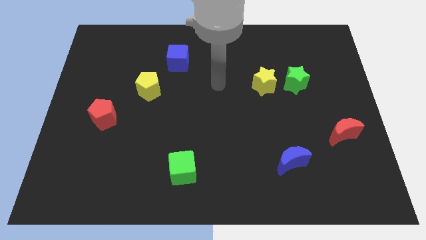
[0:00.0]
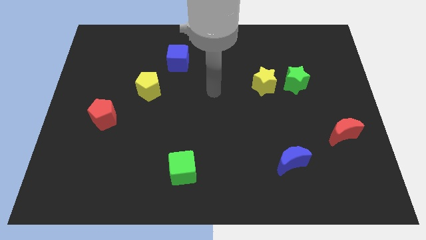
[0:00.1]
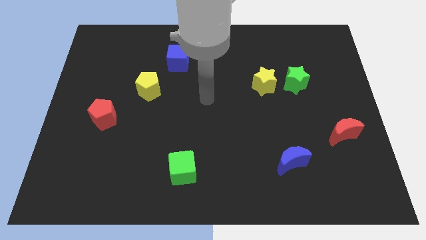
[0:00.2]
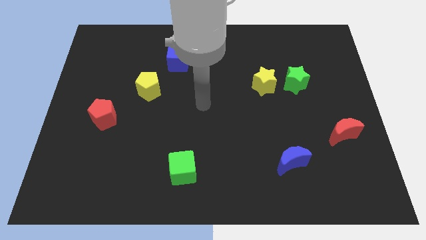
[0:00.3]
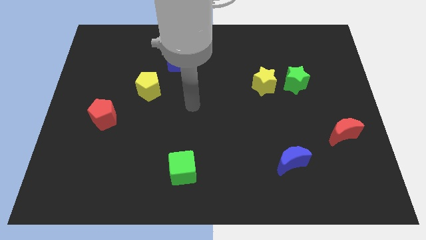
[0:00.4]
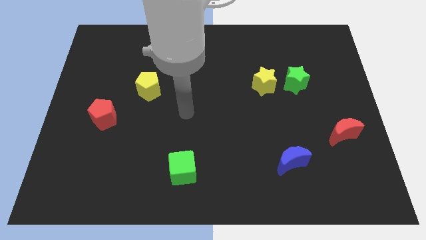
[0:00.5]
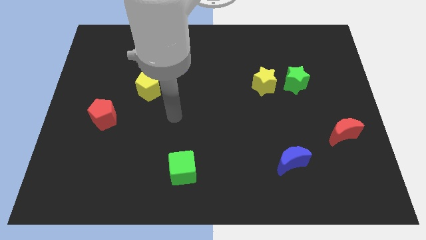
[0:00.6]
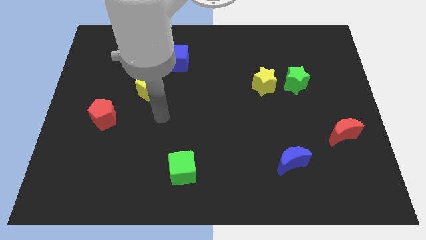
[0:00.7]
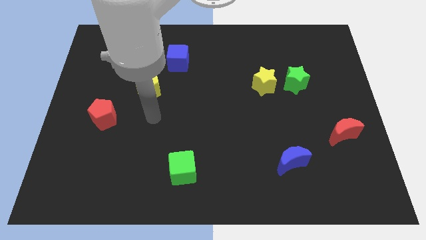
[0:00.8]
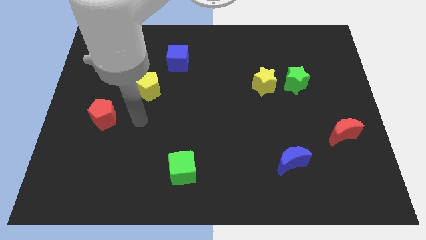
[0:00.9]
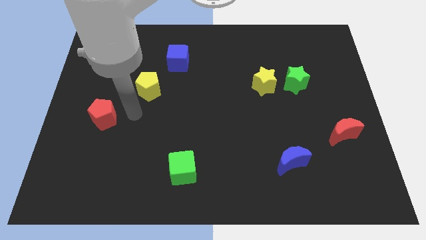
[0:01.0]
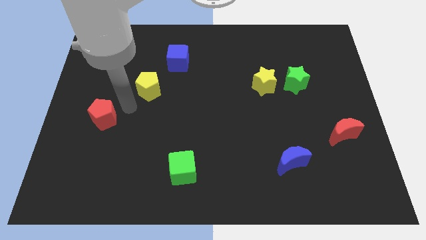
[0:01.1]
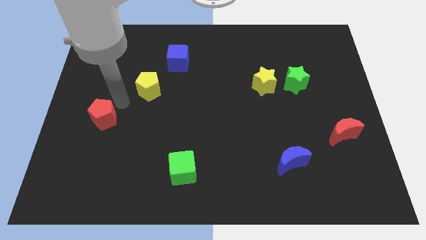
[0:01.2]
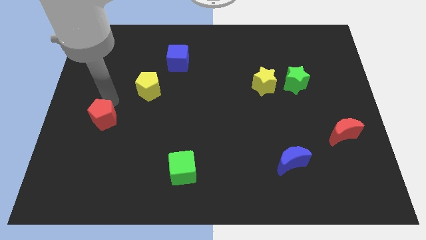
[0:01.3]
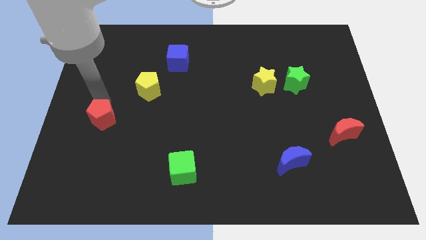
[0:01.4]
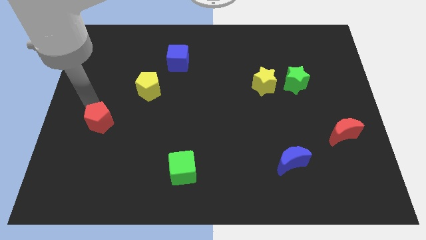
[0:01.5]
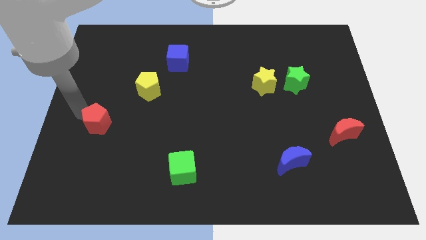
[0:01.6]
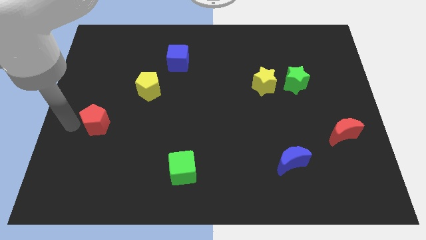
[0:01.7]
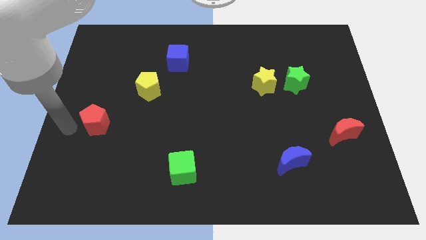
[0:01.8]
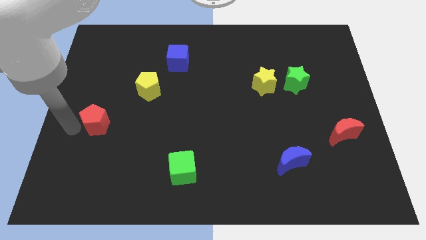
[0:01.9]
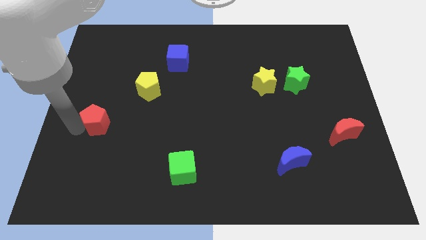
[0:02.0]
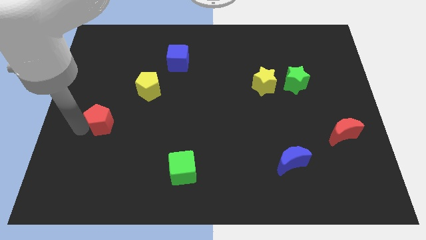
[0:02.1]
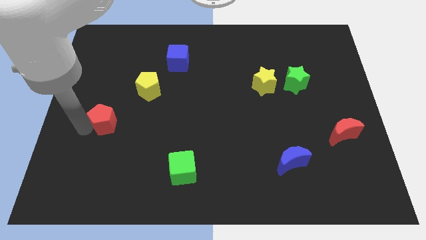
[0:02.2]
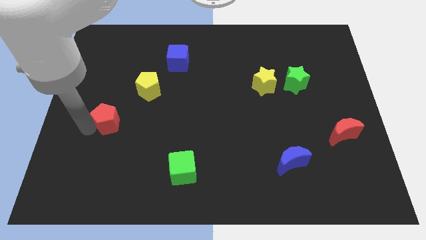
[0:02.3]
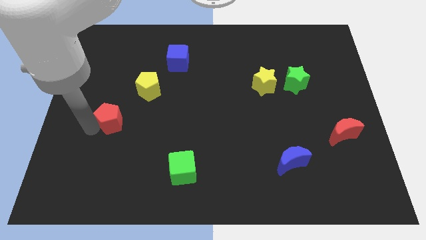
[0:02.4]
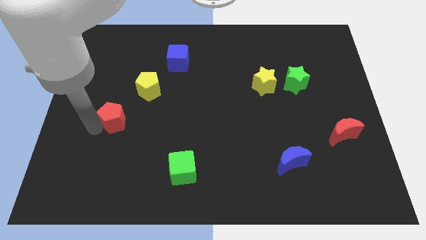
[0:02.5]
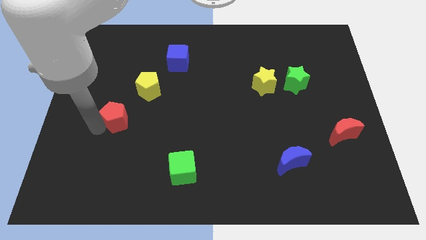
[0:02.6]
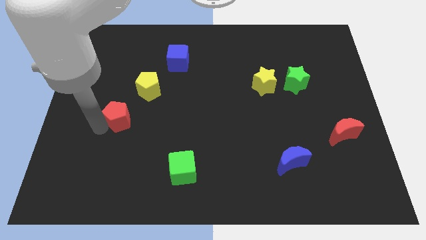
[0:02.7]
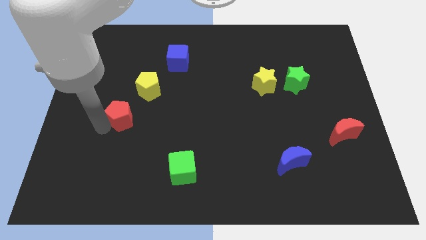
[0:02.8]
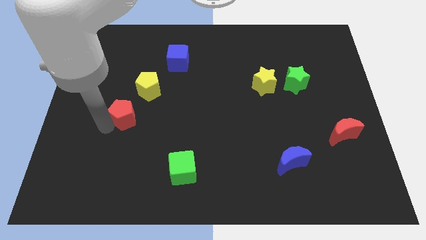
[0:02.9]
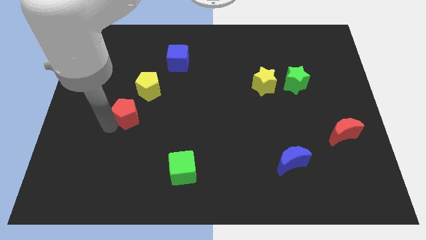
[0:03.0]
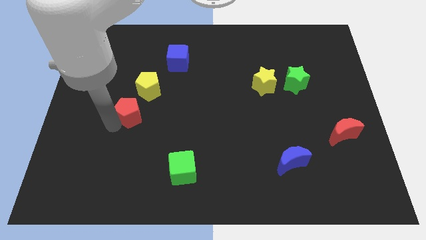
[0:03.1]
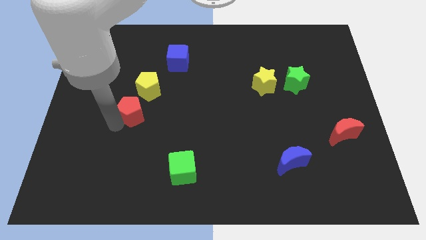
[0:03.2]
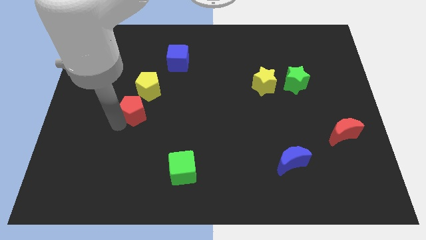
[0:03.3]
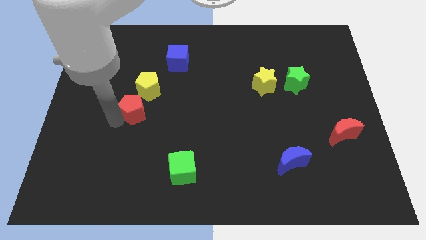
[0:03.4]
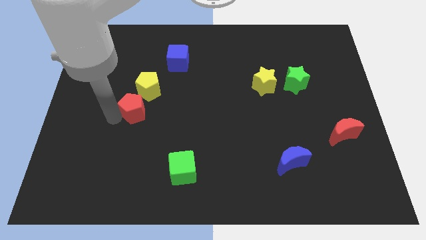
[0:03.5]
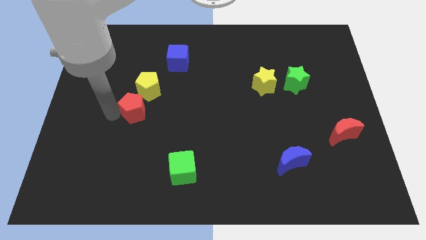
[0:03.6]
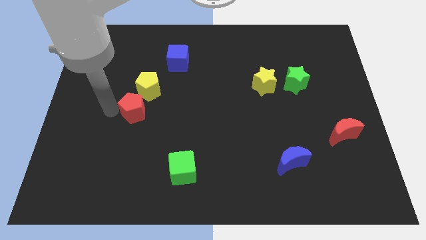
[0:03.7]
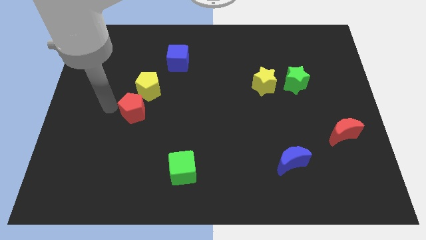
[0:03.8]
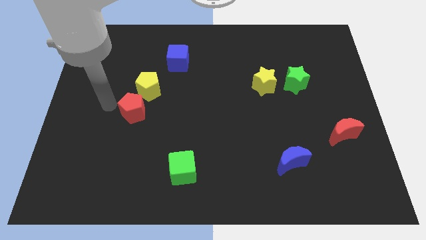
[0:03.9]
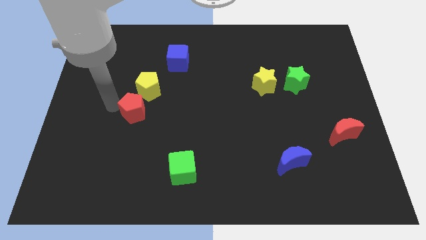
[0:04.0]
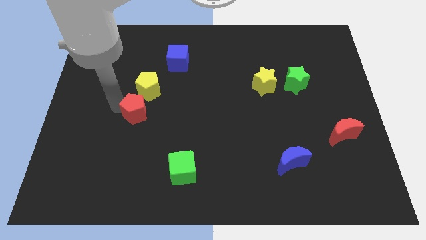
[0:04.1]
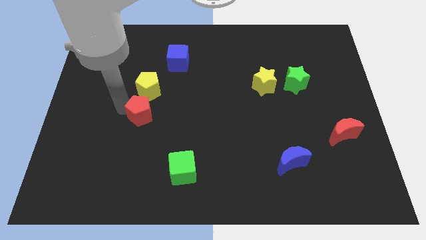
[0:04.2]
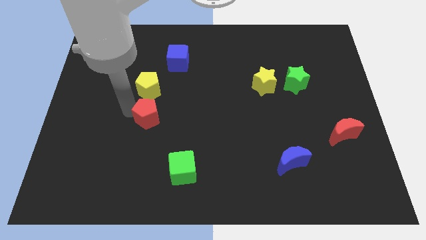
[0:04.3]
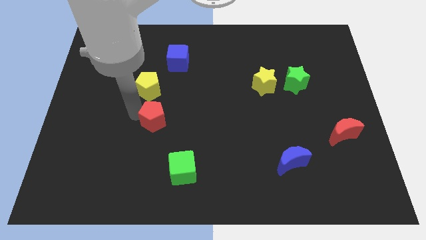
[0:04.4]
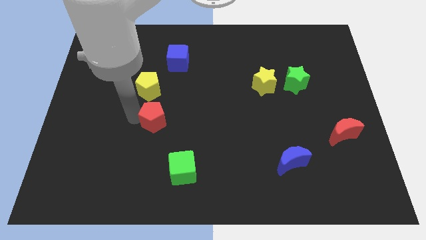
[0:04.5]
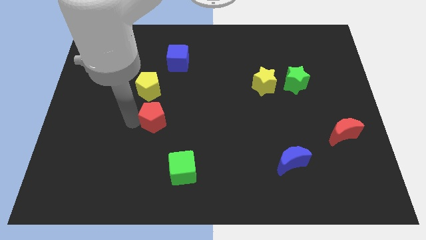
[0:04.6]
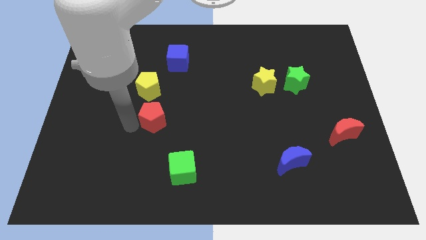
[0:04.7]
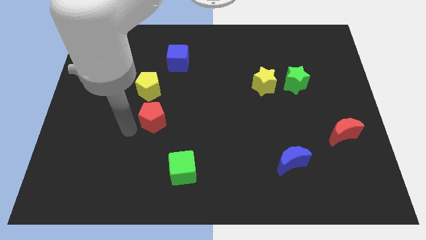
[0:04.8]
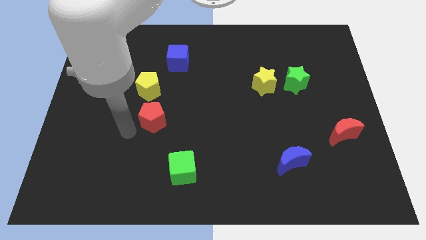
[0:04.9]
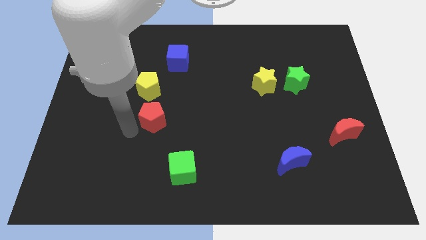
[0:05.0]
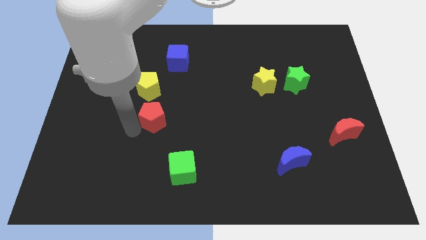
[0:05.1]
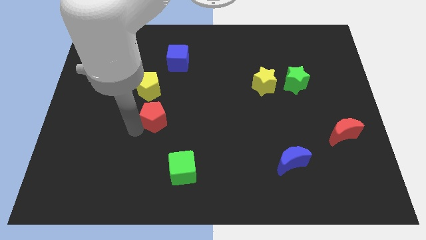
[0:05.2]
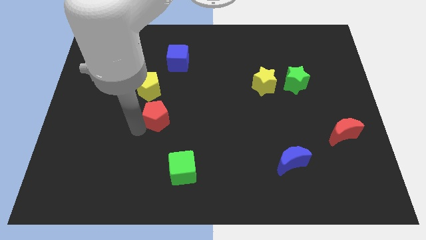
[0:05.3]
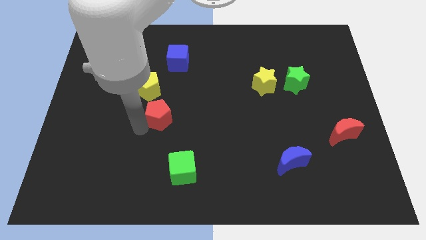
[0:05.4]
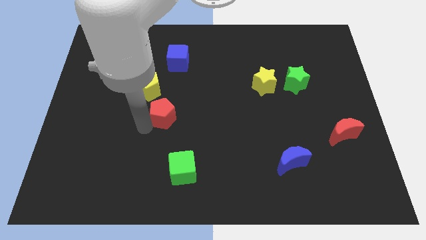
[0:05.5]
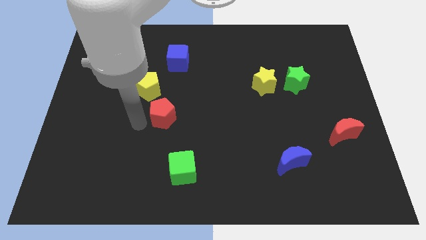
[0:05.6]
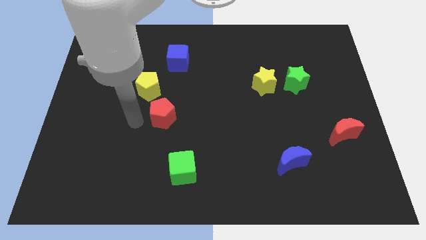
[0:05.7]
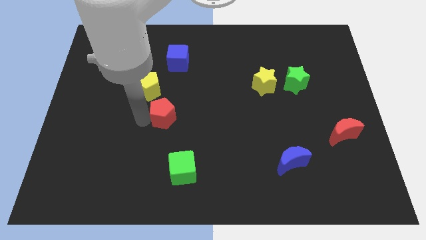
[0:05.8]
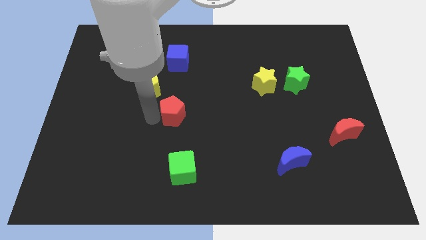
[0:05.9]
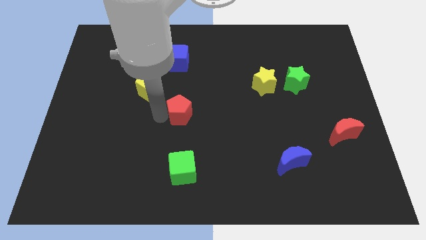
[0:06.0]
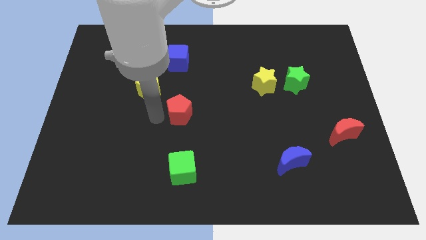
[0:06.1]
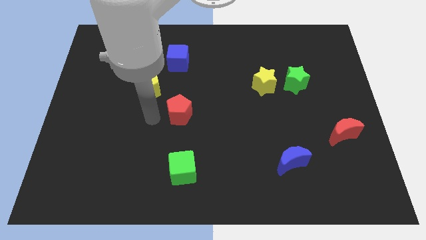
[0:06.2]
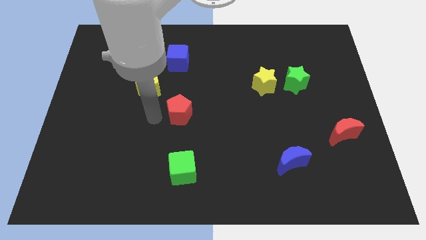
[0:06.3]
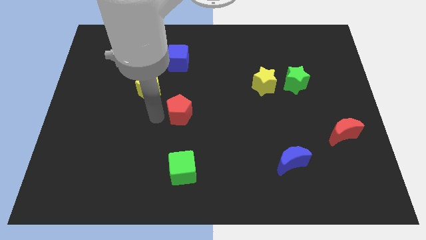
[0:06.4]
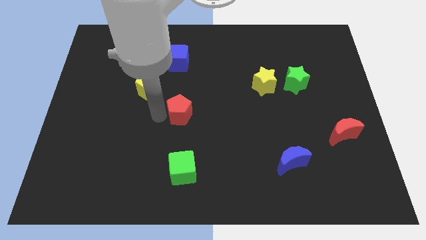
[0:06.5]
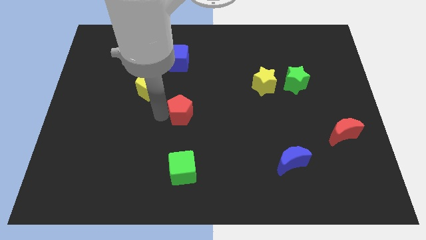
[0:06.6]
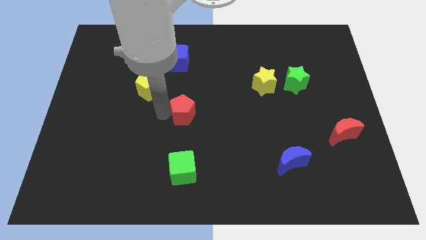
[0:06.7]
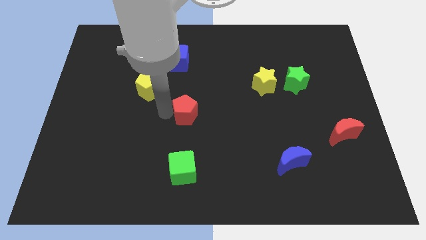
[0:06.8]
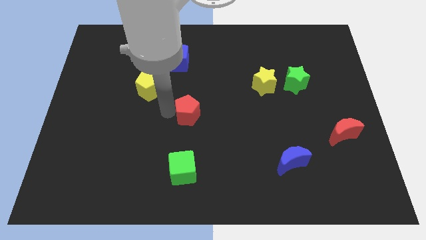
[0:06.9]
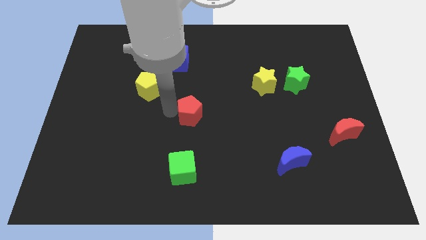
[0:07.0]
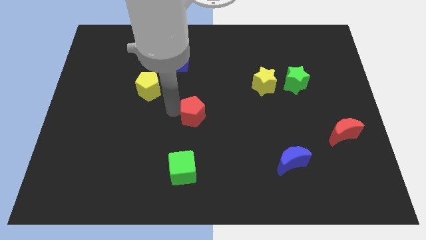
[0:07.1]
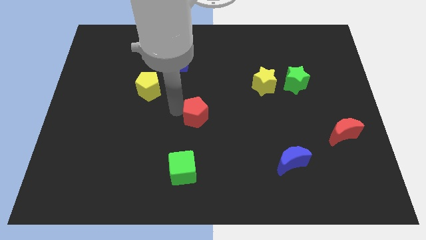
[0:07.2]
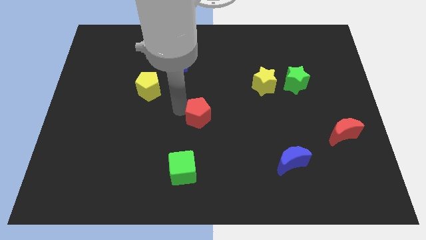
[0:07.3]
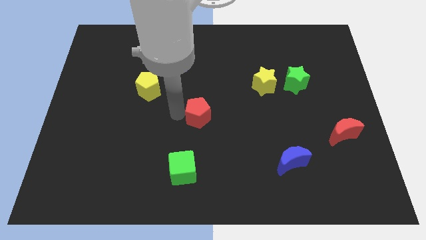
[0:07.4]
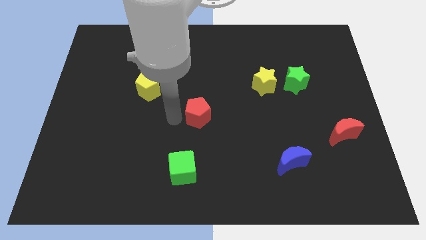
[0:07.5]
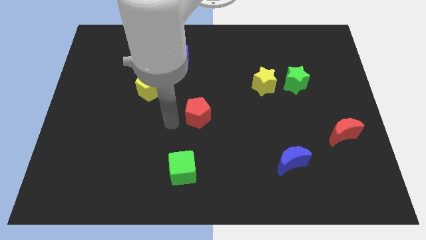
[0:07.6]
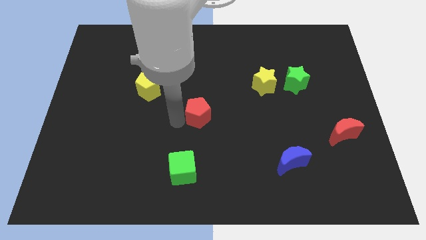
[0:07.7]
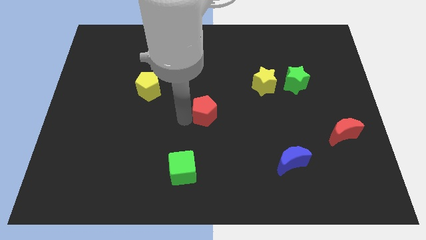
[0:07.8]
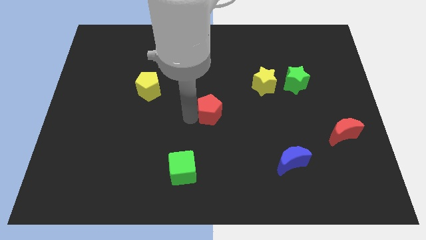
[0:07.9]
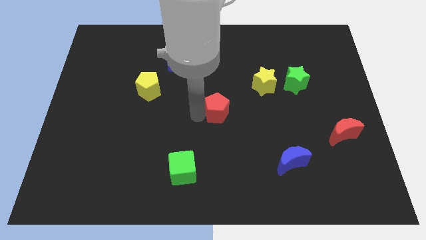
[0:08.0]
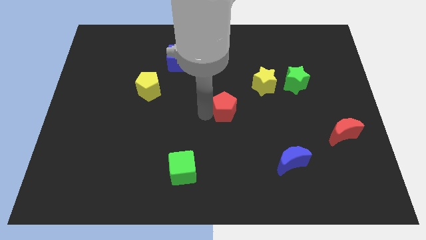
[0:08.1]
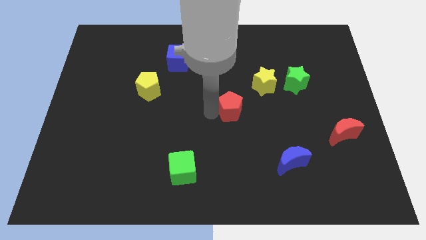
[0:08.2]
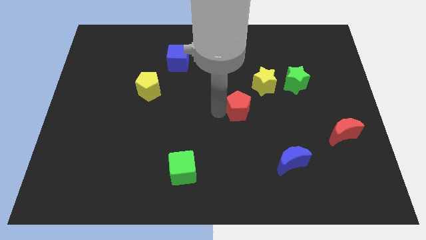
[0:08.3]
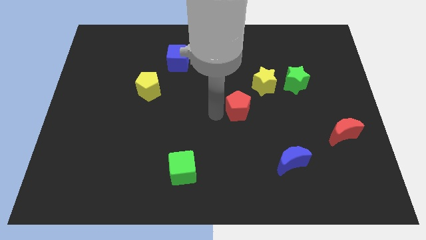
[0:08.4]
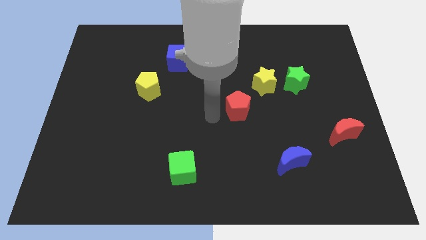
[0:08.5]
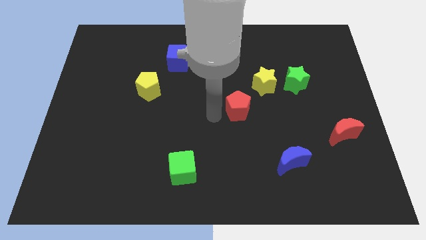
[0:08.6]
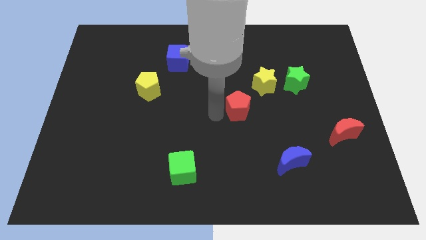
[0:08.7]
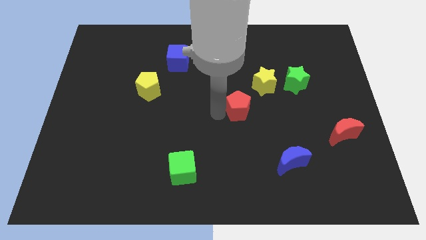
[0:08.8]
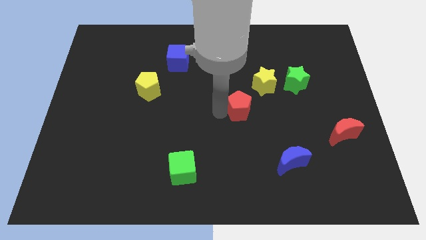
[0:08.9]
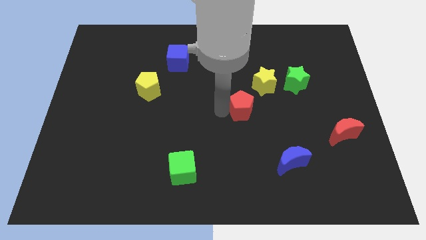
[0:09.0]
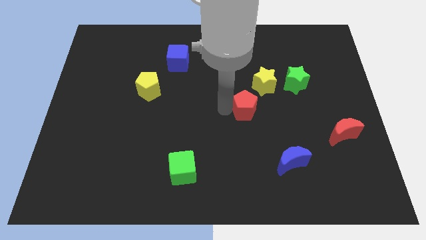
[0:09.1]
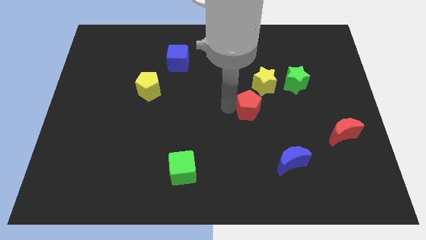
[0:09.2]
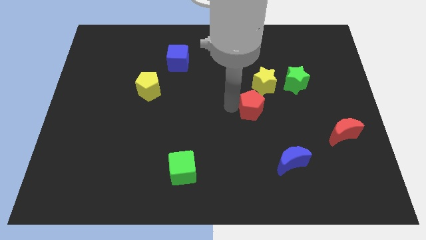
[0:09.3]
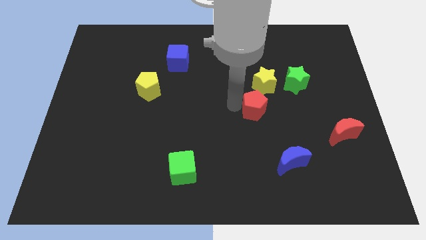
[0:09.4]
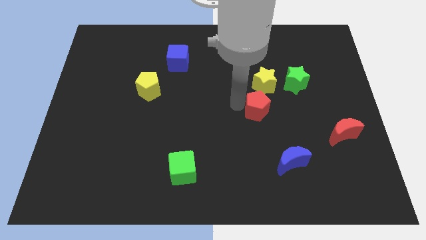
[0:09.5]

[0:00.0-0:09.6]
slide the red pentagon to the bottom left of the green star
